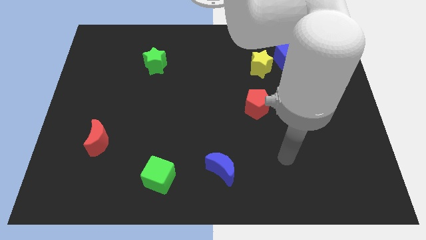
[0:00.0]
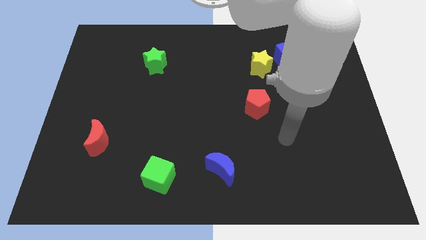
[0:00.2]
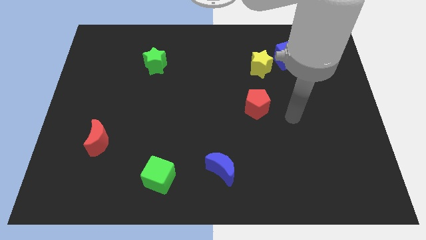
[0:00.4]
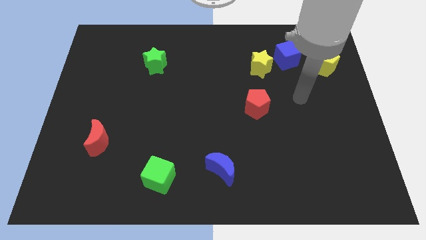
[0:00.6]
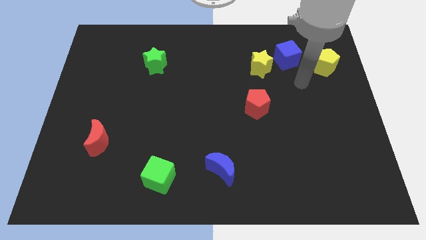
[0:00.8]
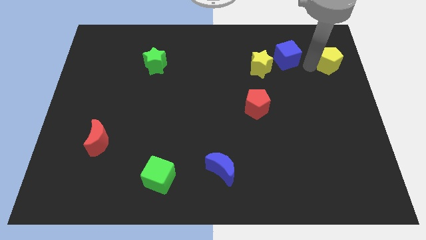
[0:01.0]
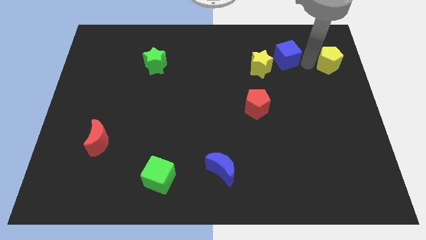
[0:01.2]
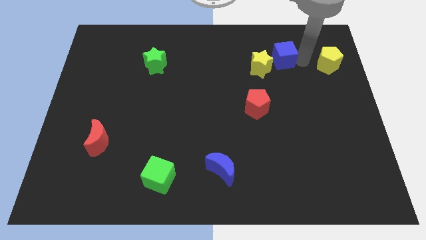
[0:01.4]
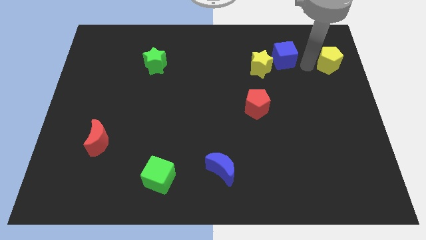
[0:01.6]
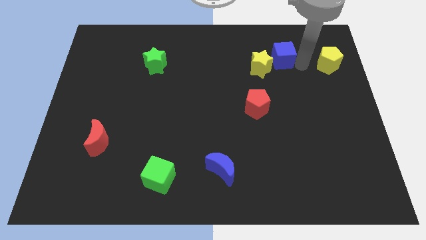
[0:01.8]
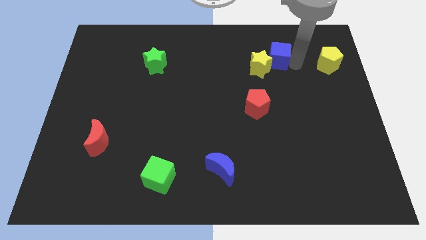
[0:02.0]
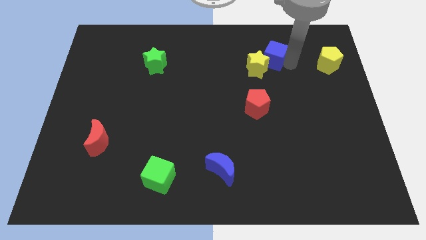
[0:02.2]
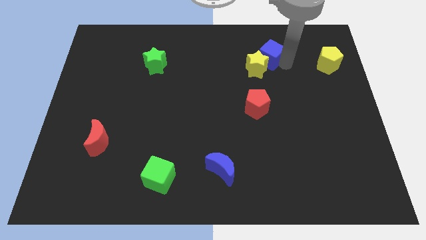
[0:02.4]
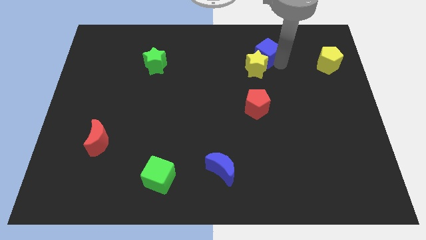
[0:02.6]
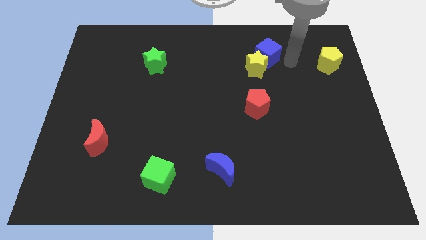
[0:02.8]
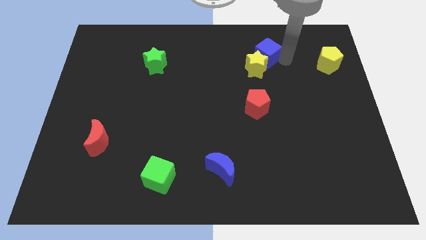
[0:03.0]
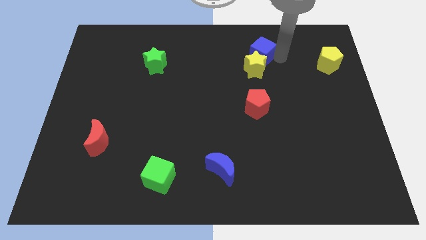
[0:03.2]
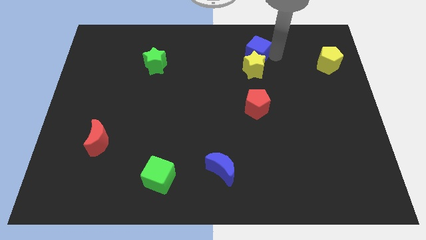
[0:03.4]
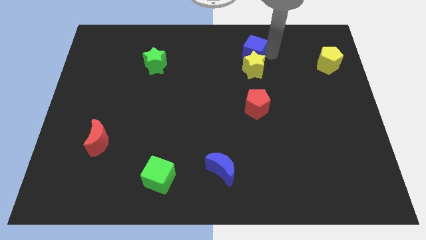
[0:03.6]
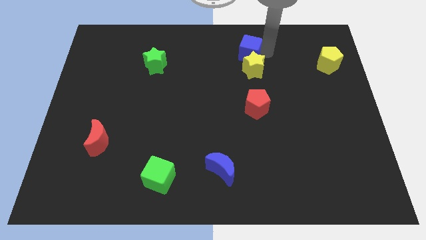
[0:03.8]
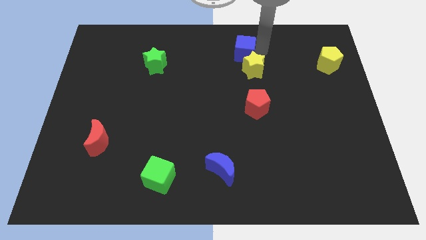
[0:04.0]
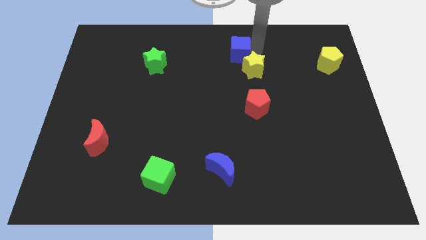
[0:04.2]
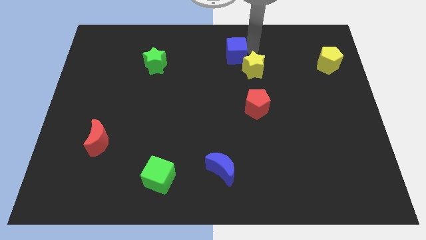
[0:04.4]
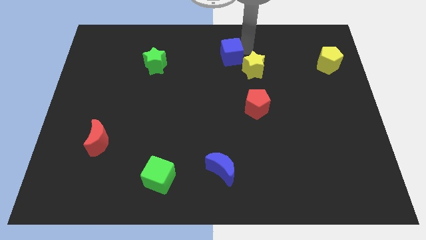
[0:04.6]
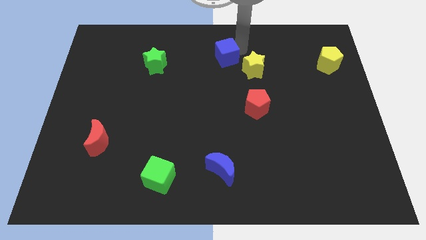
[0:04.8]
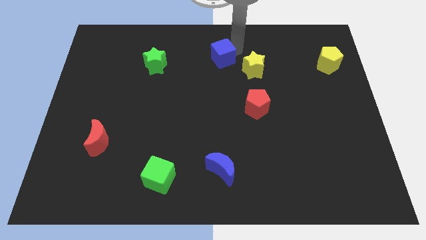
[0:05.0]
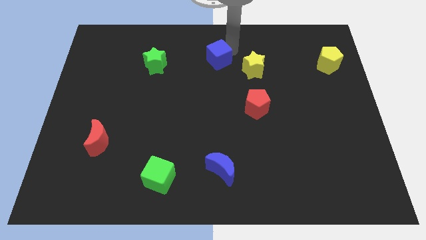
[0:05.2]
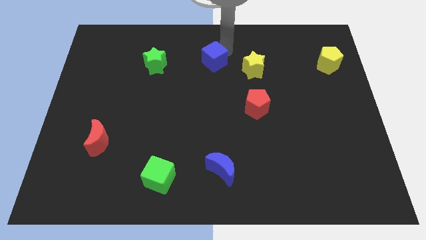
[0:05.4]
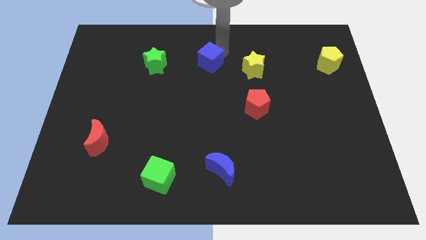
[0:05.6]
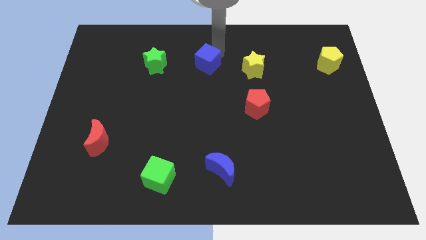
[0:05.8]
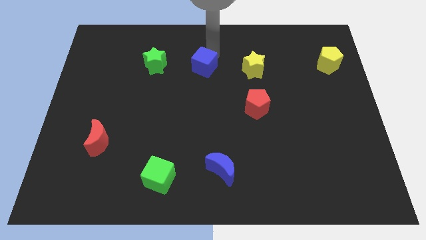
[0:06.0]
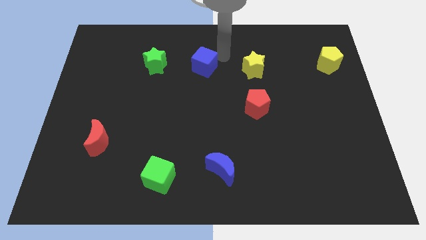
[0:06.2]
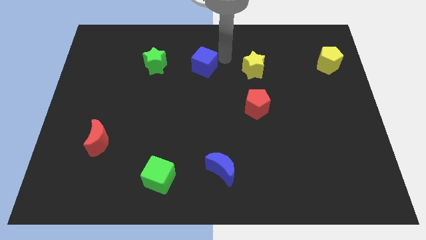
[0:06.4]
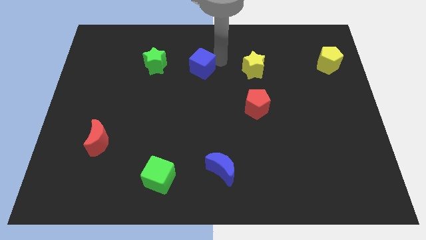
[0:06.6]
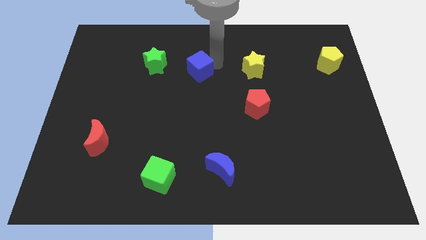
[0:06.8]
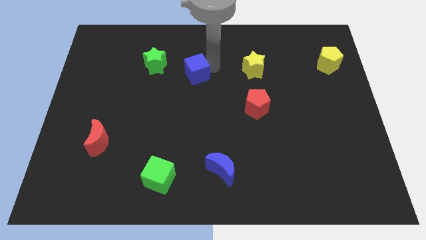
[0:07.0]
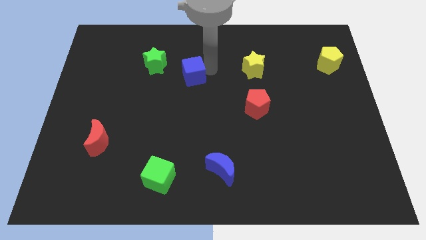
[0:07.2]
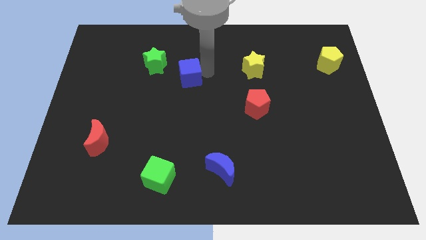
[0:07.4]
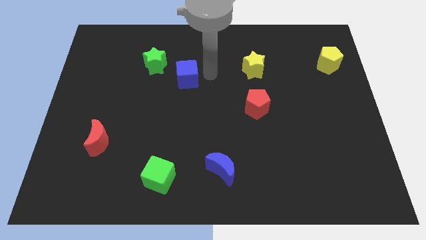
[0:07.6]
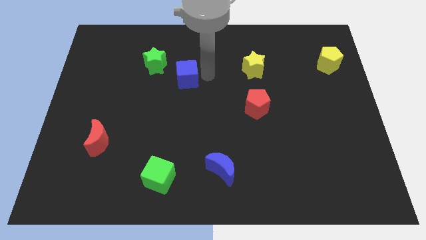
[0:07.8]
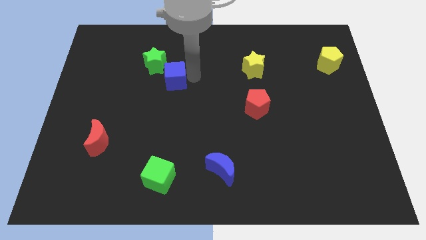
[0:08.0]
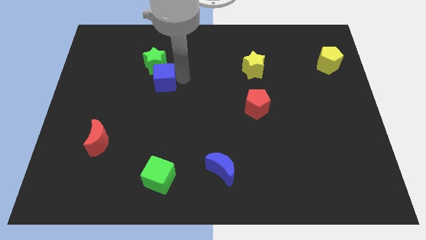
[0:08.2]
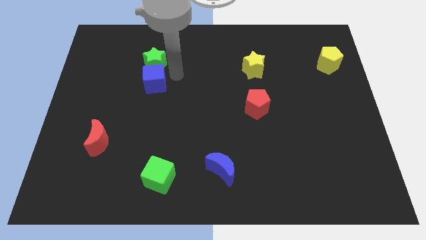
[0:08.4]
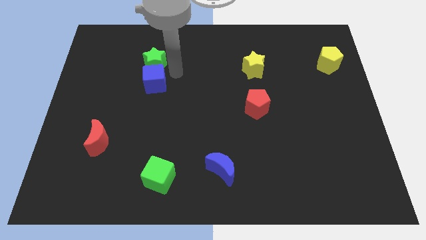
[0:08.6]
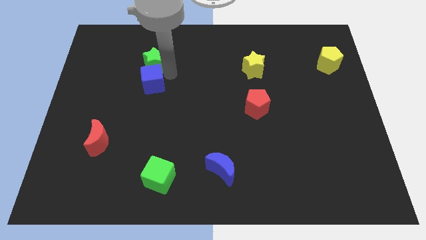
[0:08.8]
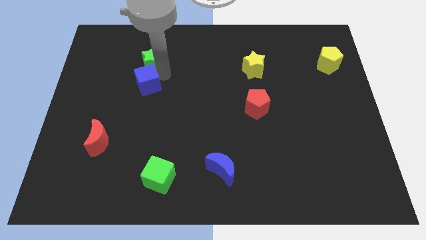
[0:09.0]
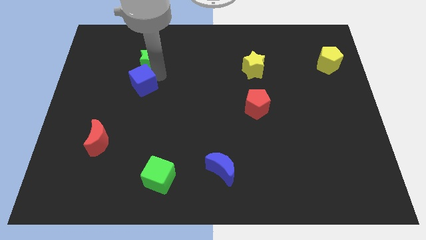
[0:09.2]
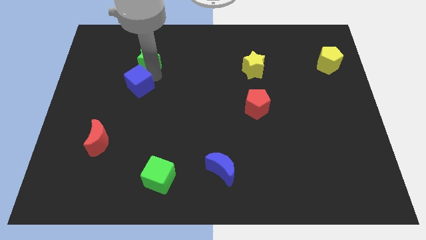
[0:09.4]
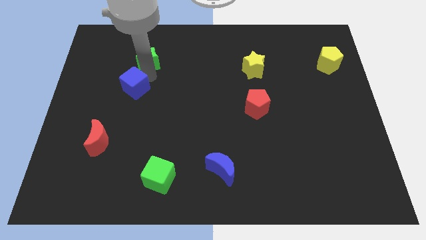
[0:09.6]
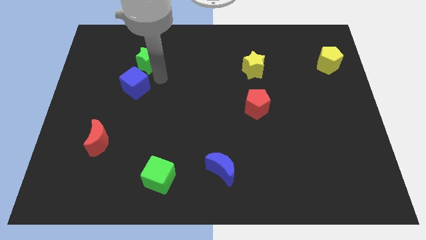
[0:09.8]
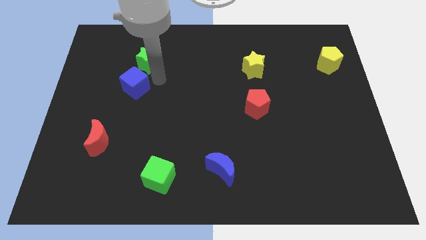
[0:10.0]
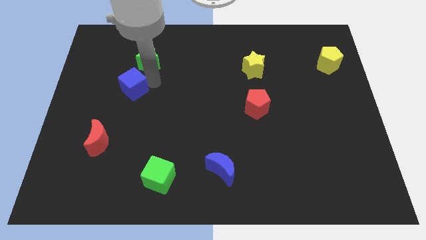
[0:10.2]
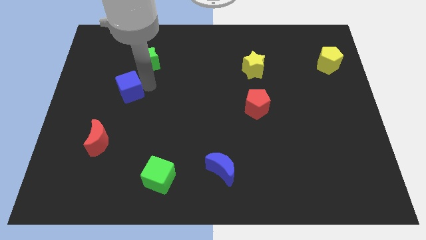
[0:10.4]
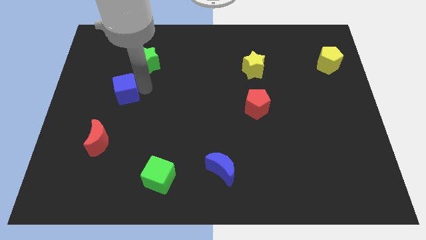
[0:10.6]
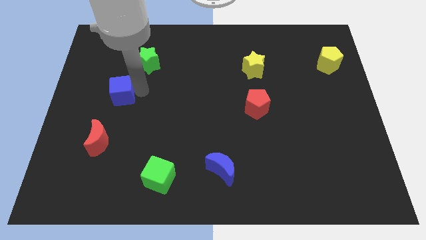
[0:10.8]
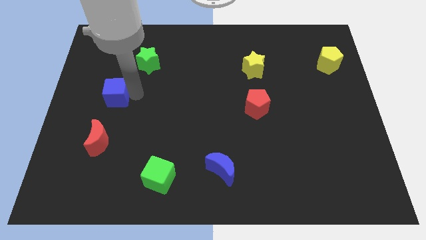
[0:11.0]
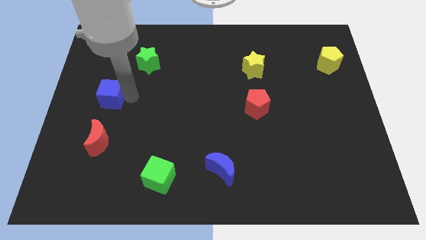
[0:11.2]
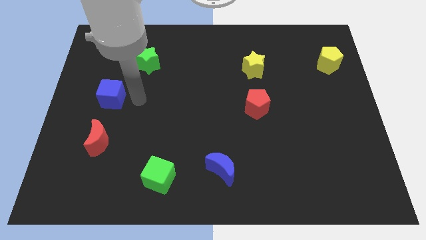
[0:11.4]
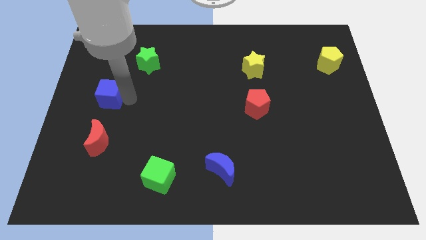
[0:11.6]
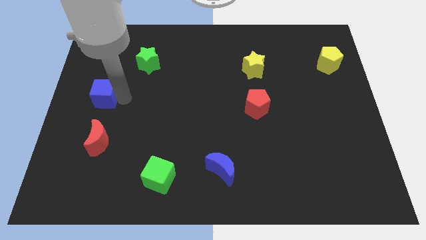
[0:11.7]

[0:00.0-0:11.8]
push the blue cube to the center left
